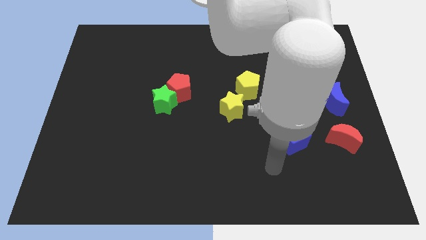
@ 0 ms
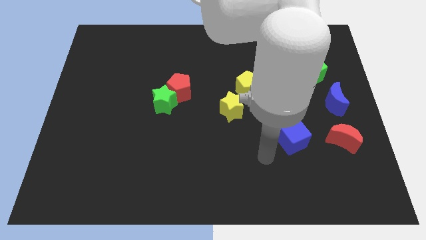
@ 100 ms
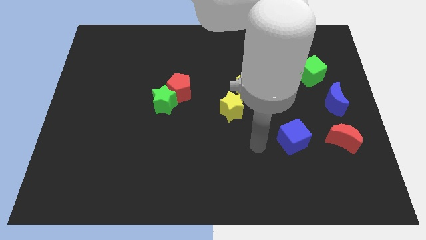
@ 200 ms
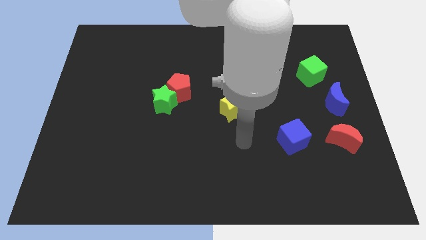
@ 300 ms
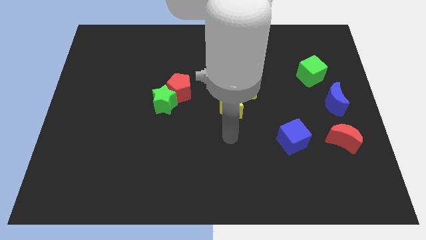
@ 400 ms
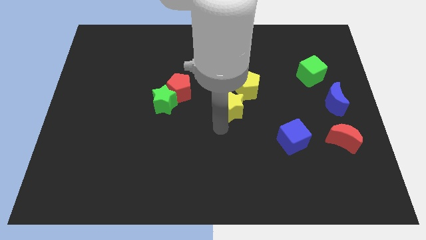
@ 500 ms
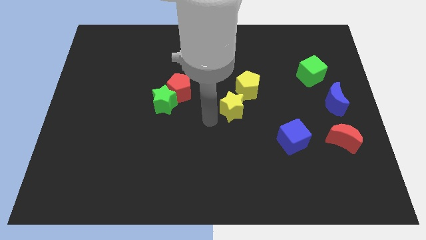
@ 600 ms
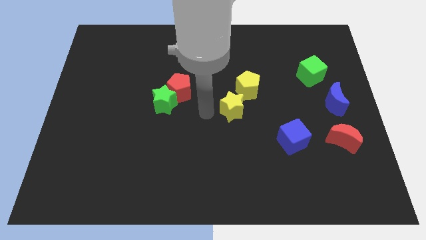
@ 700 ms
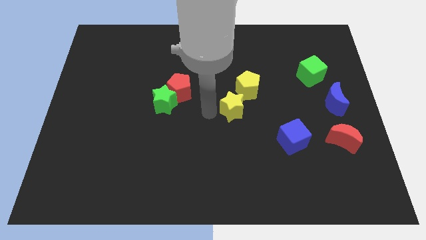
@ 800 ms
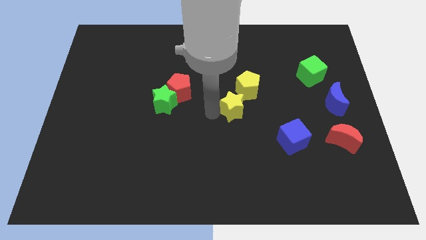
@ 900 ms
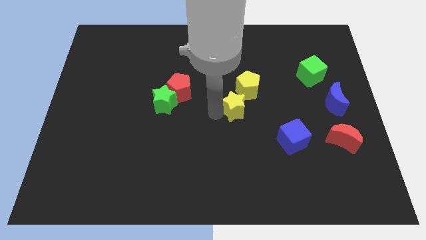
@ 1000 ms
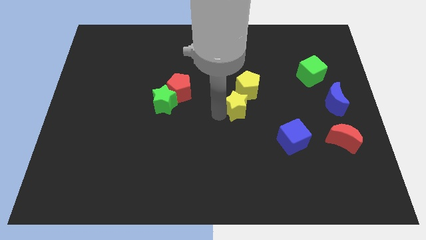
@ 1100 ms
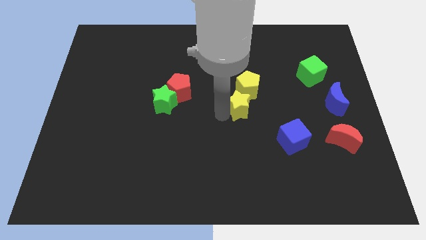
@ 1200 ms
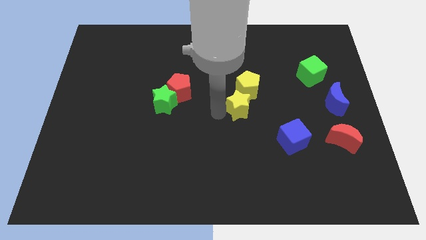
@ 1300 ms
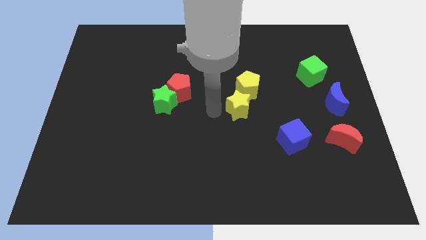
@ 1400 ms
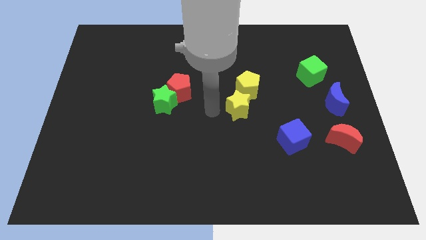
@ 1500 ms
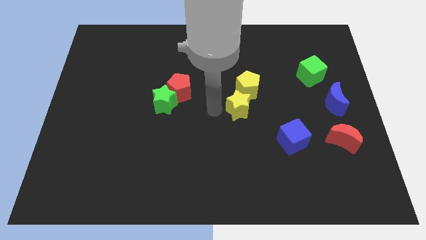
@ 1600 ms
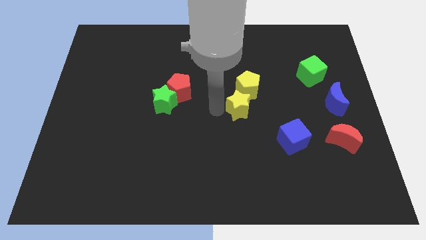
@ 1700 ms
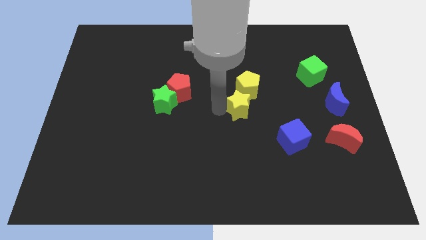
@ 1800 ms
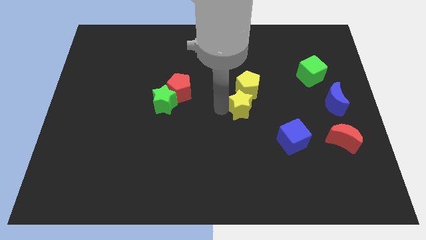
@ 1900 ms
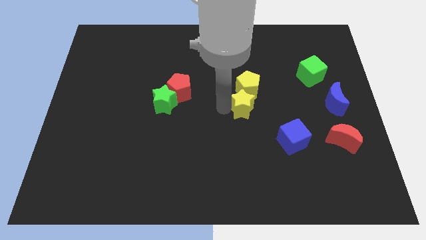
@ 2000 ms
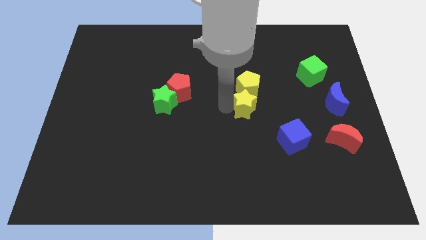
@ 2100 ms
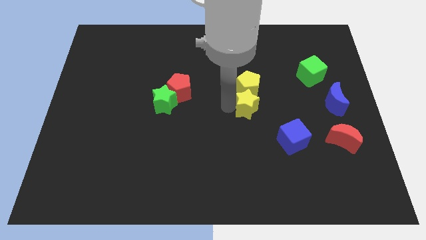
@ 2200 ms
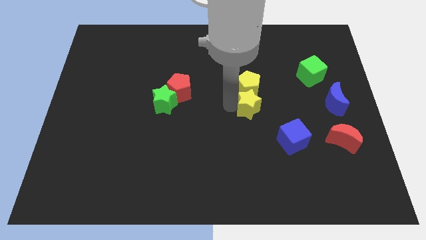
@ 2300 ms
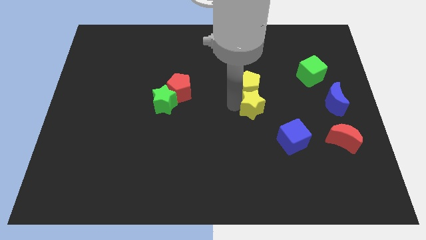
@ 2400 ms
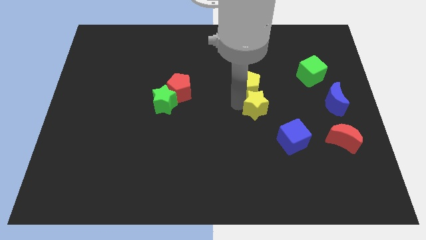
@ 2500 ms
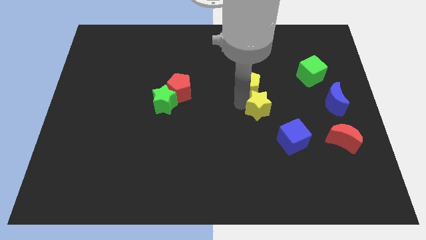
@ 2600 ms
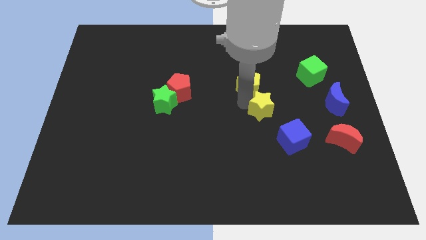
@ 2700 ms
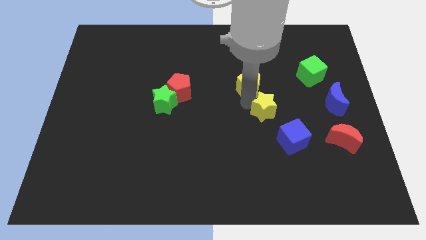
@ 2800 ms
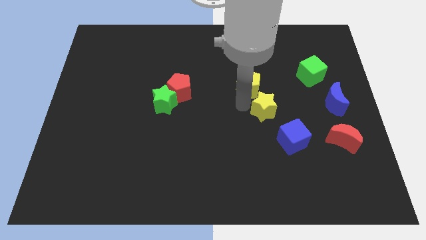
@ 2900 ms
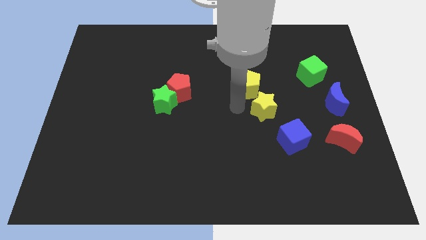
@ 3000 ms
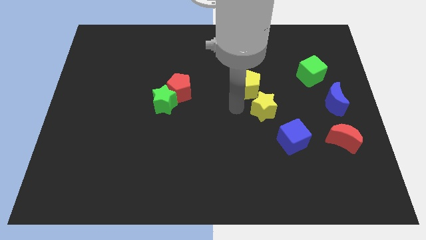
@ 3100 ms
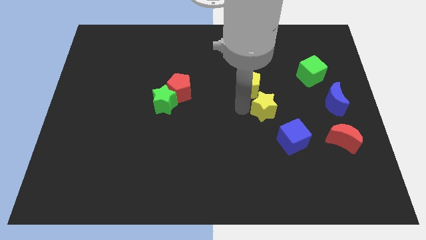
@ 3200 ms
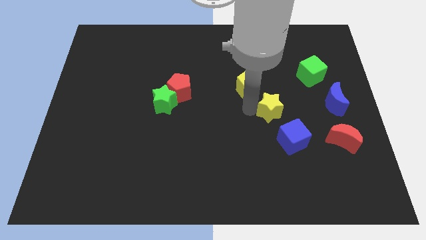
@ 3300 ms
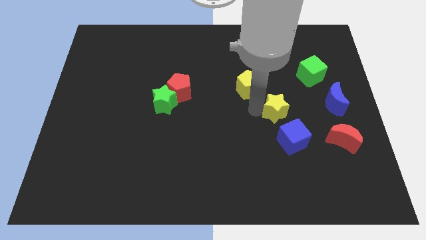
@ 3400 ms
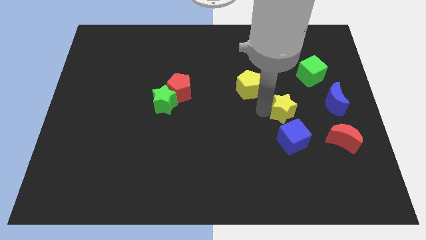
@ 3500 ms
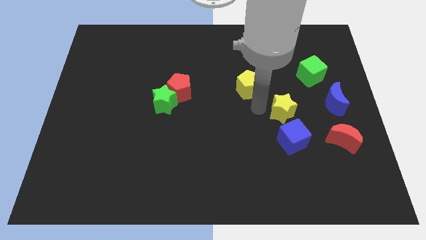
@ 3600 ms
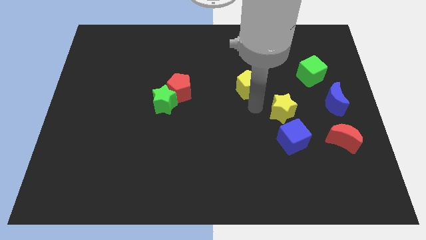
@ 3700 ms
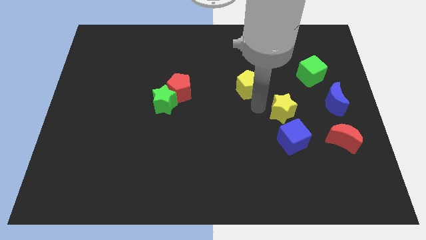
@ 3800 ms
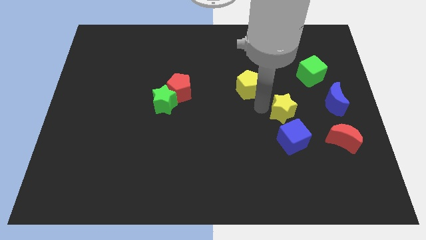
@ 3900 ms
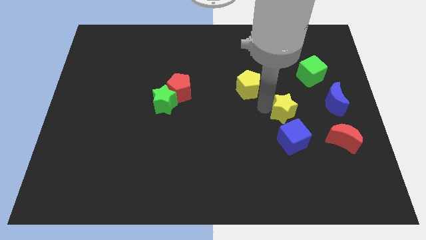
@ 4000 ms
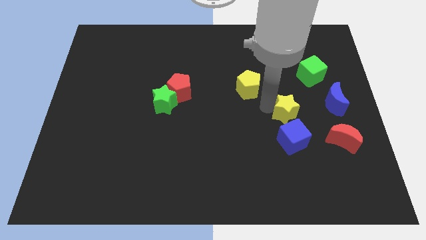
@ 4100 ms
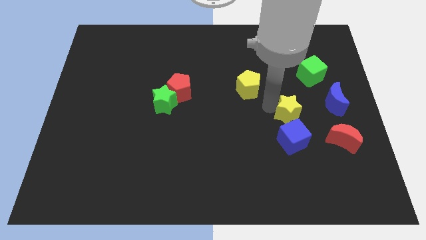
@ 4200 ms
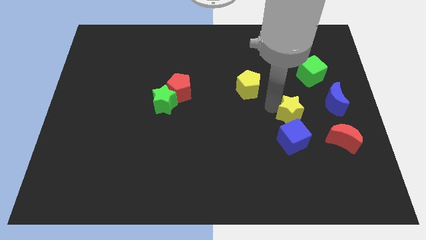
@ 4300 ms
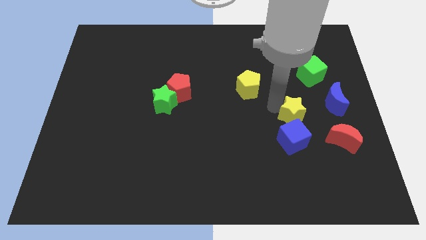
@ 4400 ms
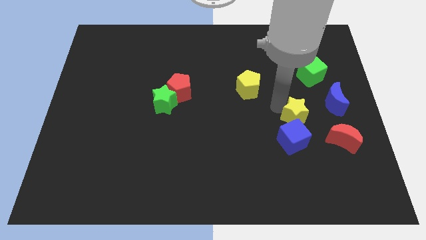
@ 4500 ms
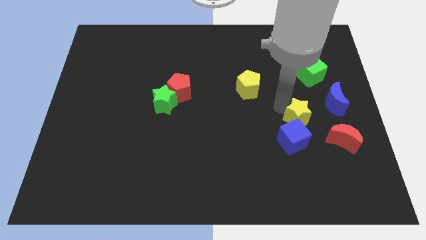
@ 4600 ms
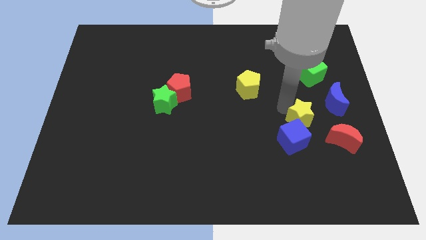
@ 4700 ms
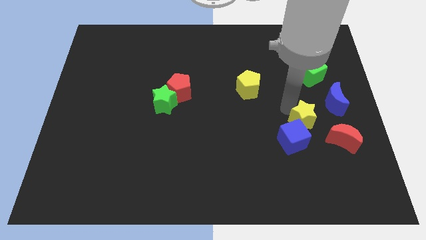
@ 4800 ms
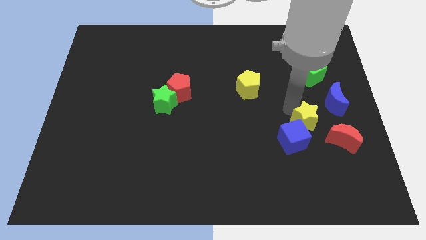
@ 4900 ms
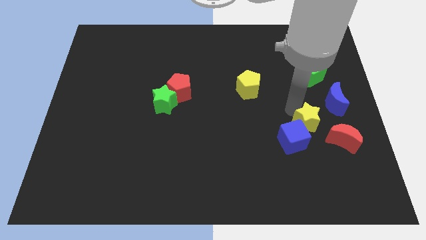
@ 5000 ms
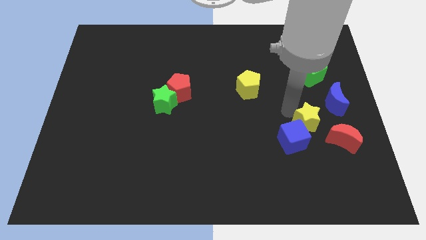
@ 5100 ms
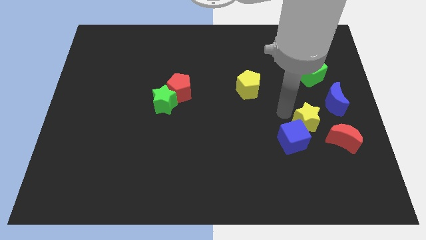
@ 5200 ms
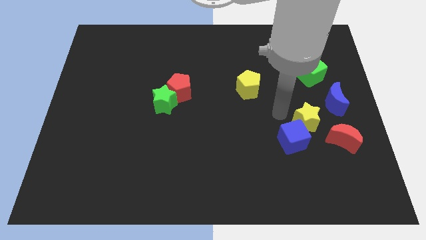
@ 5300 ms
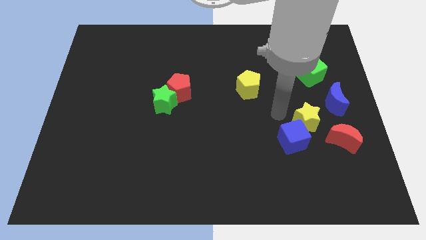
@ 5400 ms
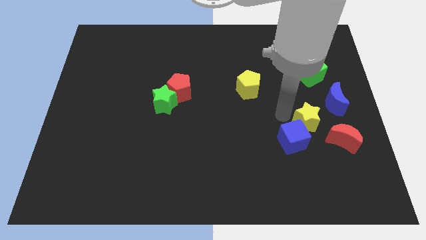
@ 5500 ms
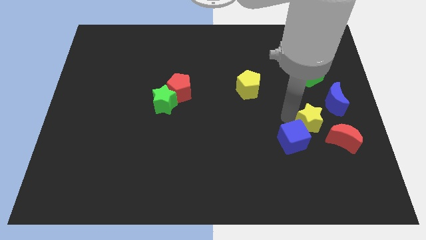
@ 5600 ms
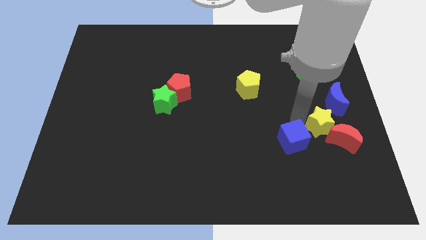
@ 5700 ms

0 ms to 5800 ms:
slide the yellow star next to the red moon

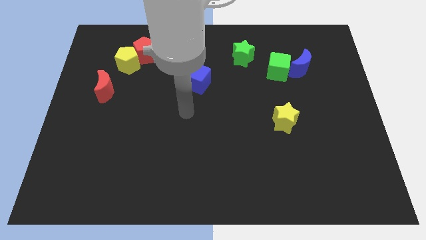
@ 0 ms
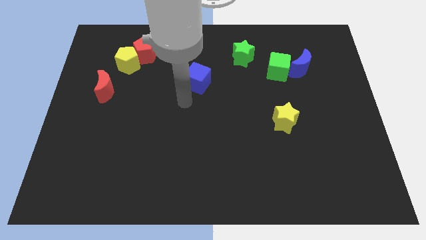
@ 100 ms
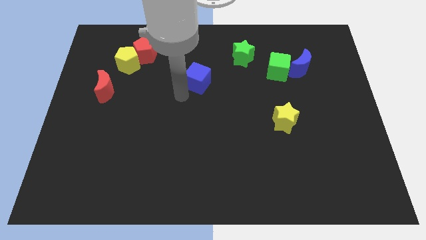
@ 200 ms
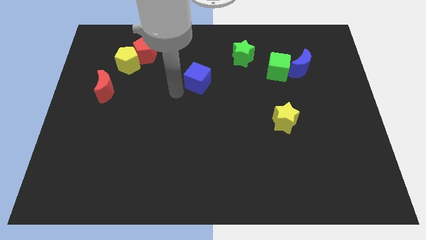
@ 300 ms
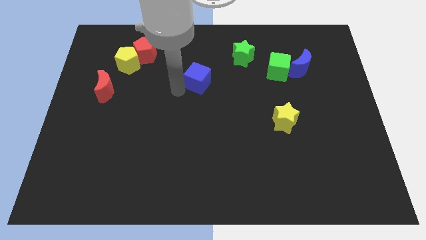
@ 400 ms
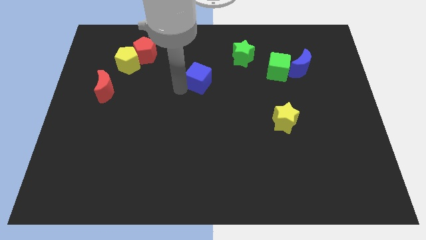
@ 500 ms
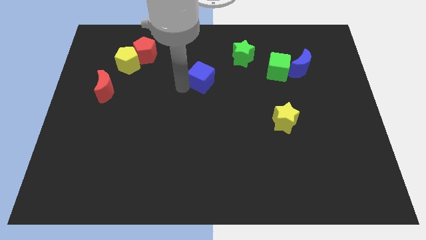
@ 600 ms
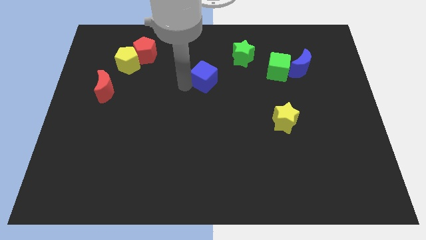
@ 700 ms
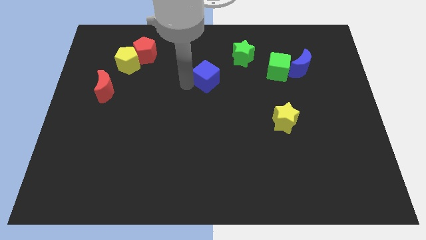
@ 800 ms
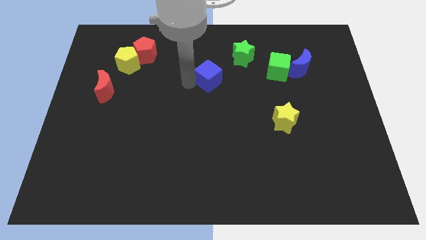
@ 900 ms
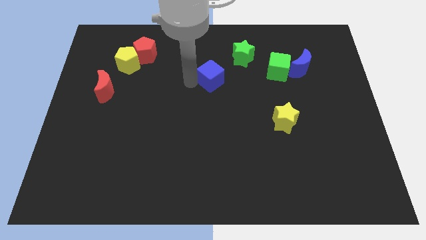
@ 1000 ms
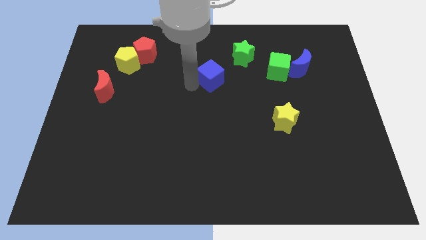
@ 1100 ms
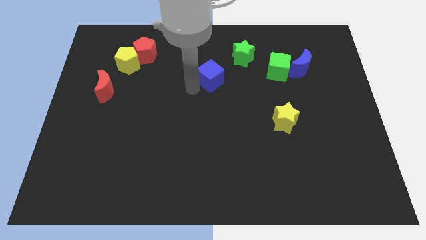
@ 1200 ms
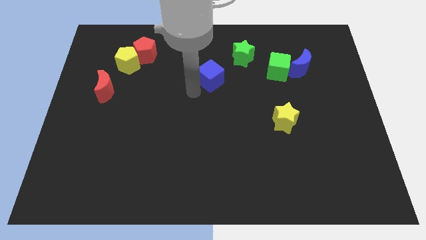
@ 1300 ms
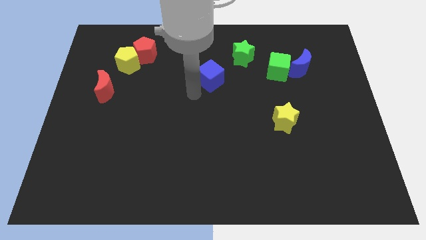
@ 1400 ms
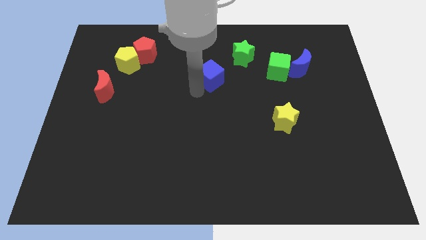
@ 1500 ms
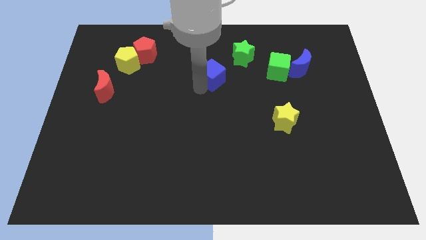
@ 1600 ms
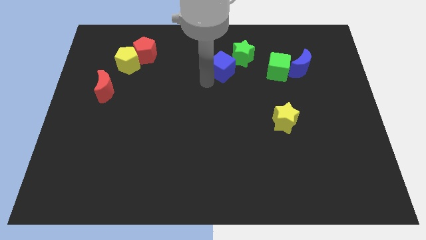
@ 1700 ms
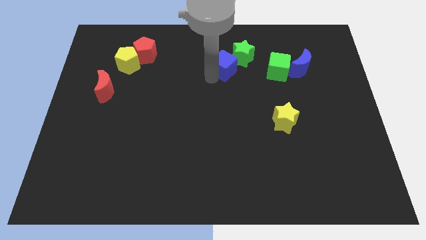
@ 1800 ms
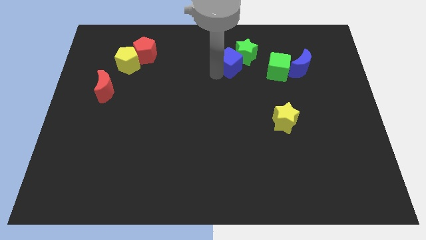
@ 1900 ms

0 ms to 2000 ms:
move the blue cube close to the green star
